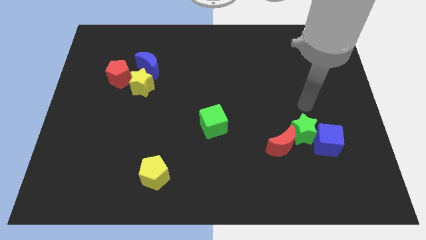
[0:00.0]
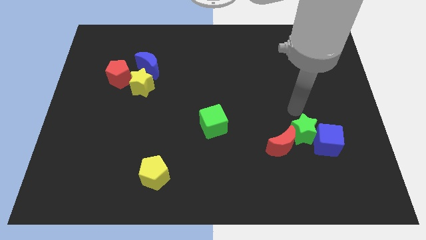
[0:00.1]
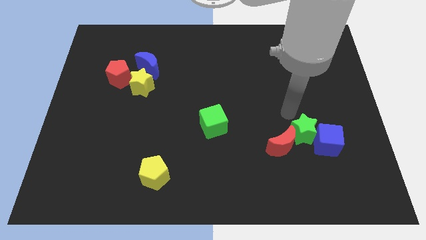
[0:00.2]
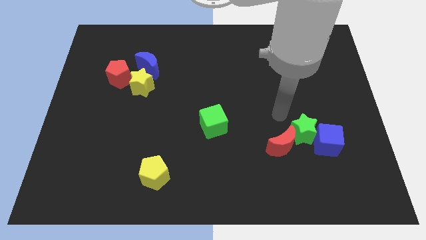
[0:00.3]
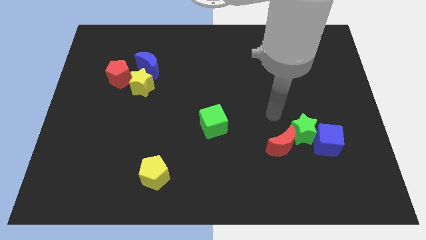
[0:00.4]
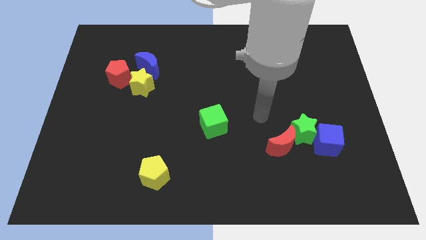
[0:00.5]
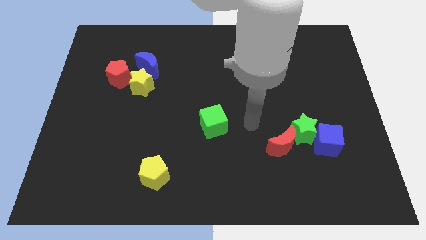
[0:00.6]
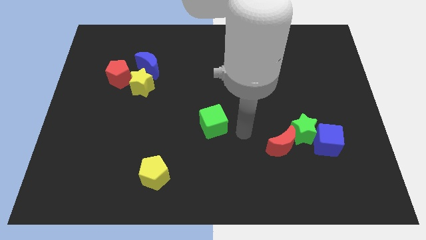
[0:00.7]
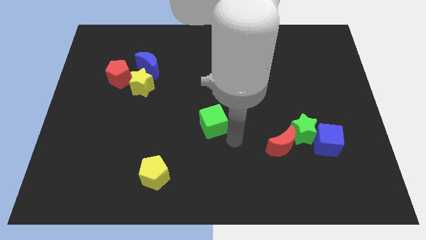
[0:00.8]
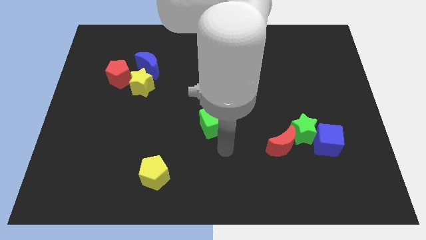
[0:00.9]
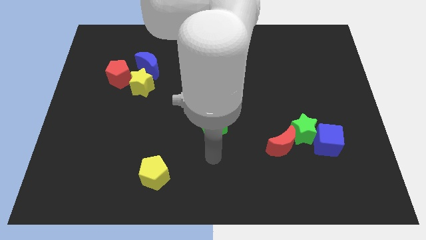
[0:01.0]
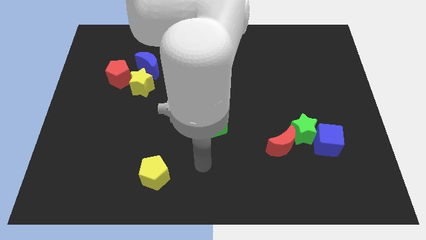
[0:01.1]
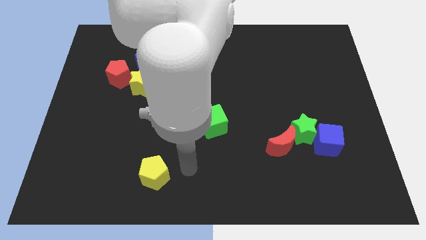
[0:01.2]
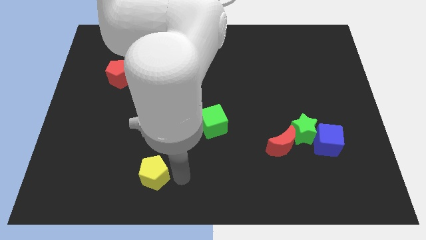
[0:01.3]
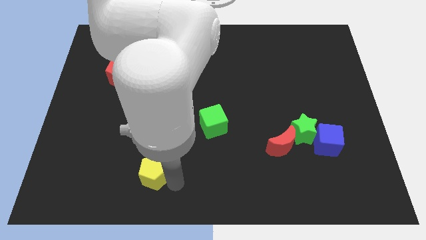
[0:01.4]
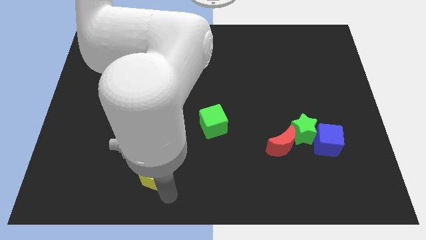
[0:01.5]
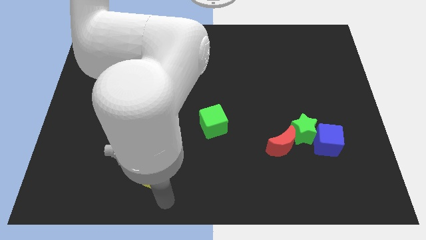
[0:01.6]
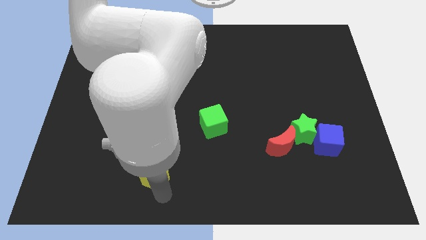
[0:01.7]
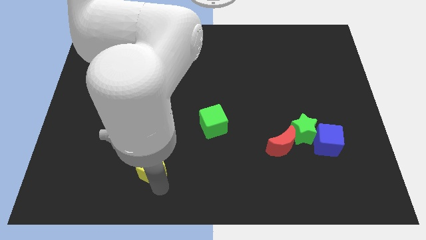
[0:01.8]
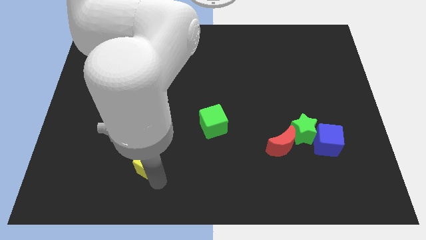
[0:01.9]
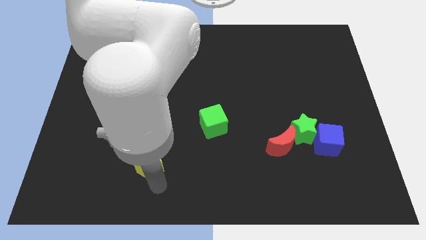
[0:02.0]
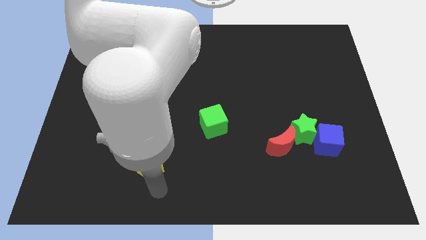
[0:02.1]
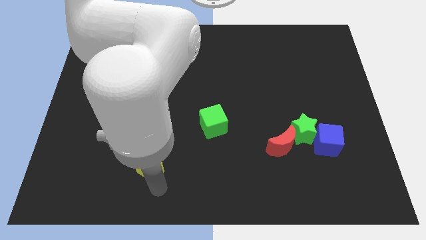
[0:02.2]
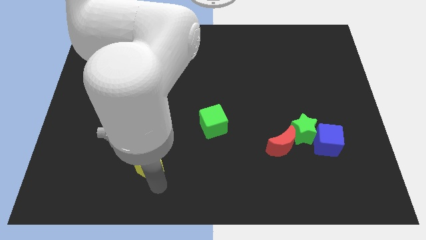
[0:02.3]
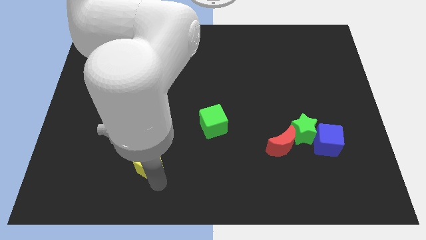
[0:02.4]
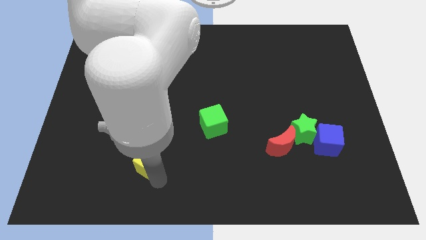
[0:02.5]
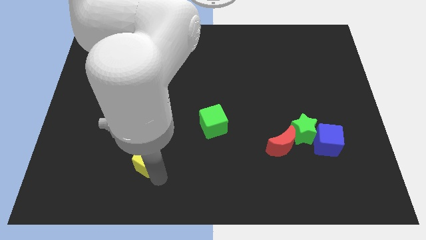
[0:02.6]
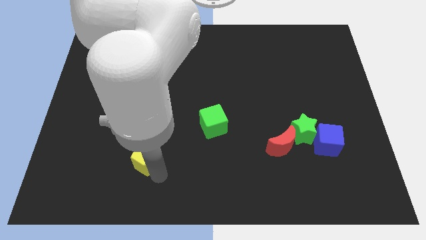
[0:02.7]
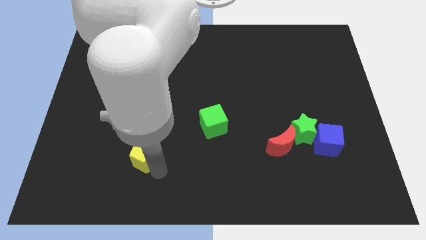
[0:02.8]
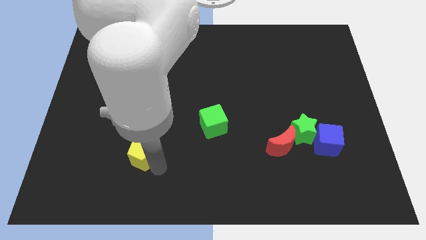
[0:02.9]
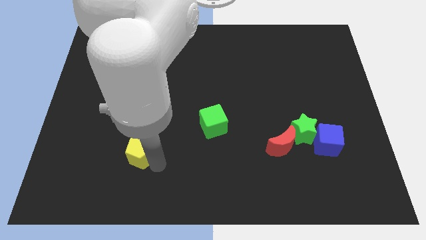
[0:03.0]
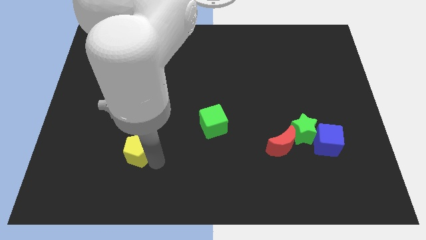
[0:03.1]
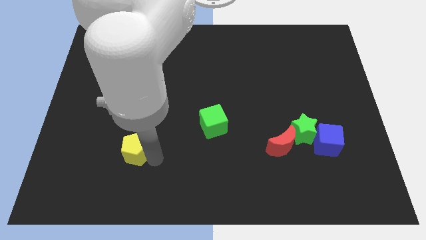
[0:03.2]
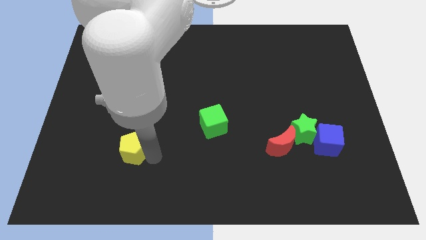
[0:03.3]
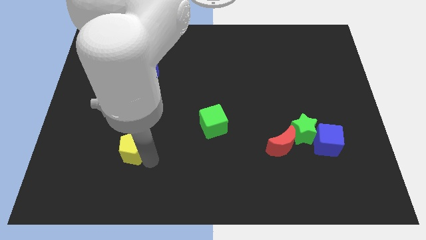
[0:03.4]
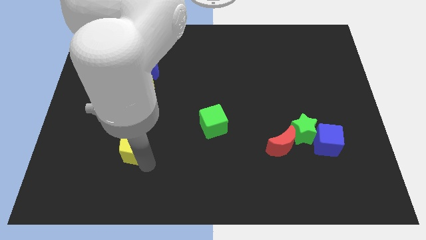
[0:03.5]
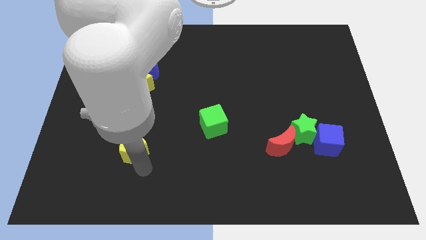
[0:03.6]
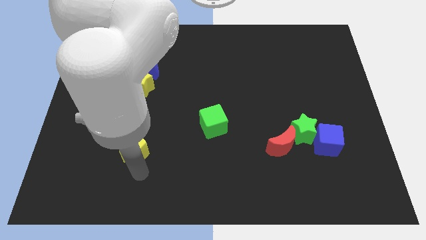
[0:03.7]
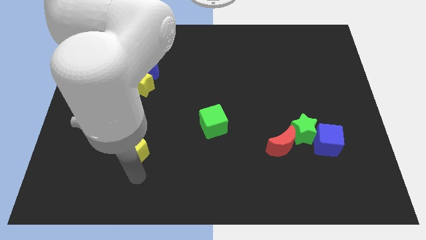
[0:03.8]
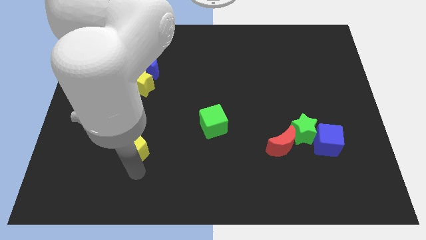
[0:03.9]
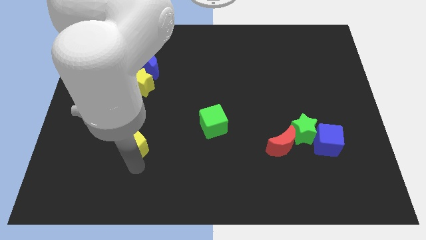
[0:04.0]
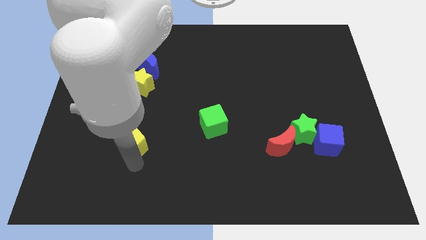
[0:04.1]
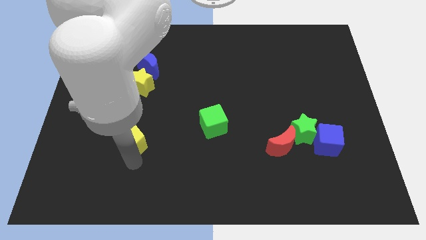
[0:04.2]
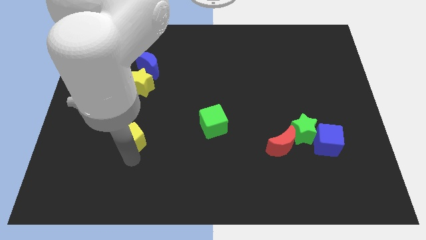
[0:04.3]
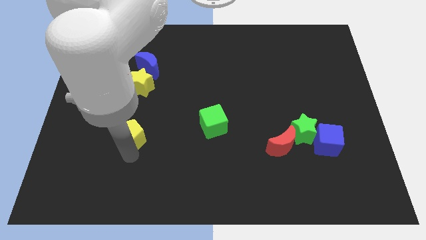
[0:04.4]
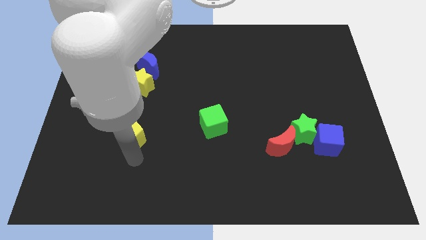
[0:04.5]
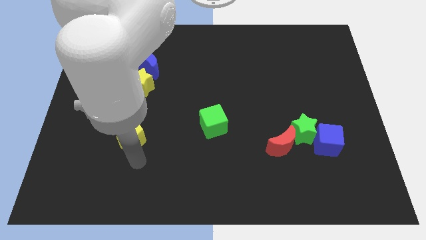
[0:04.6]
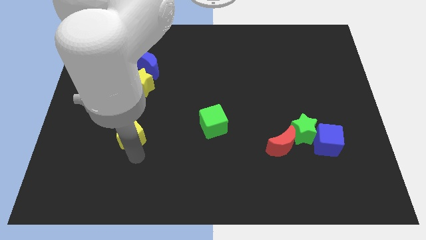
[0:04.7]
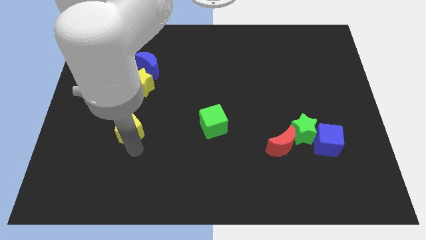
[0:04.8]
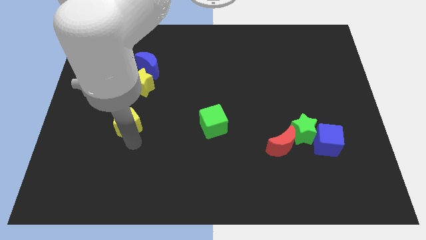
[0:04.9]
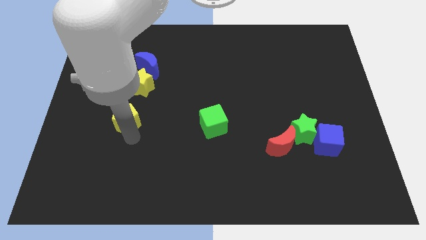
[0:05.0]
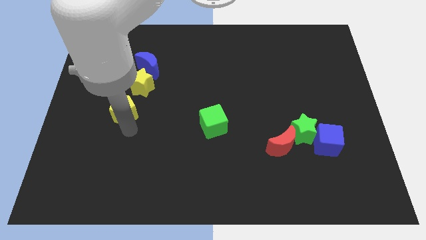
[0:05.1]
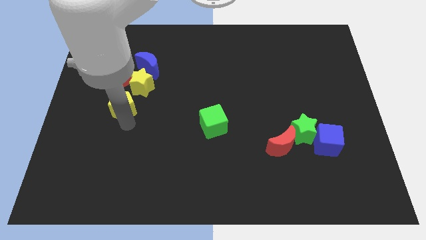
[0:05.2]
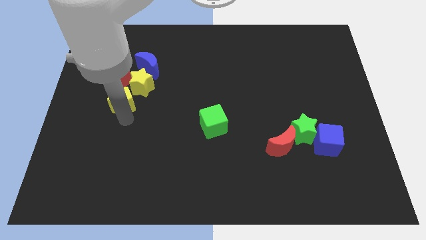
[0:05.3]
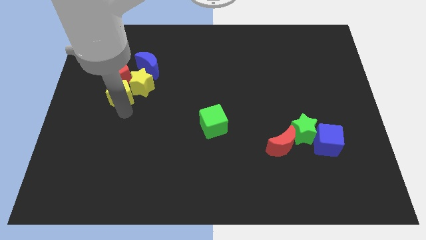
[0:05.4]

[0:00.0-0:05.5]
put the yellow pentagon next to the red pentagon

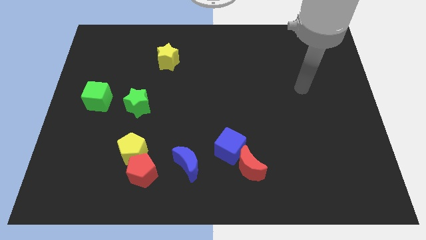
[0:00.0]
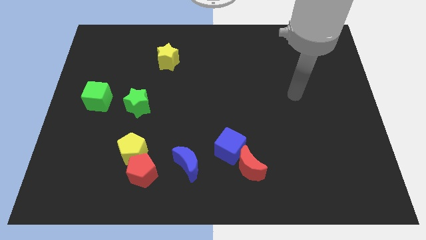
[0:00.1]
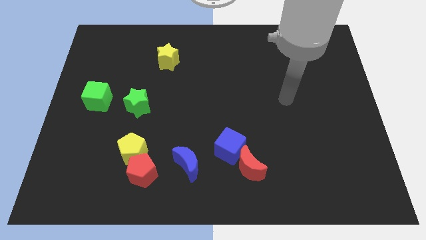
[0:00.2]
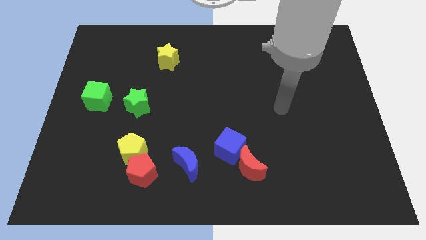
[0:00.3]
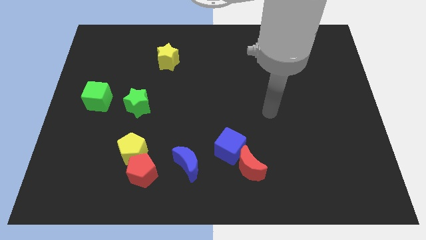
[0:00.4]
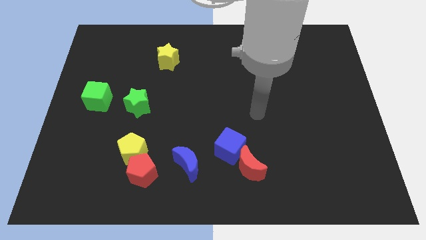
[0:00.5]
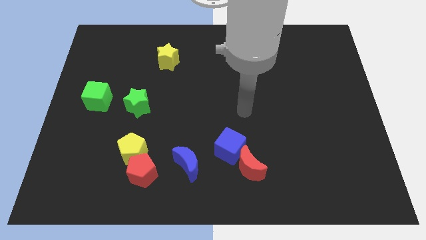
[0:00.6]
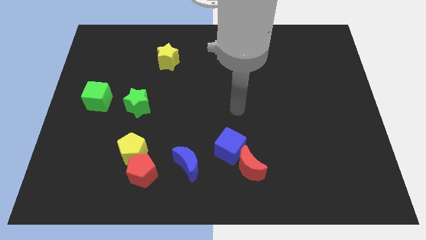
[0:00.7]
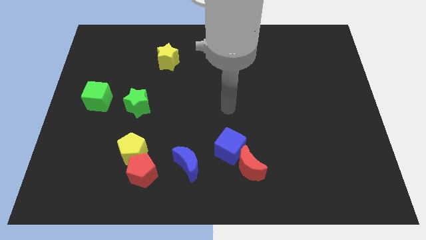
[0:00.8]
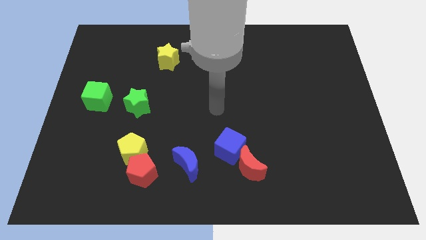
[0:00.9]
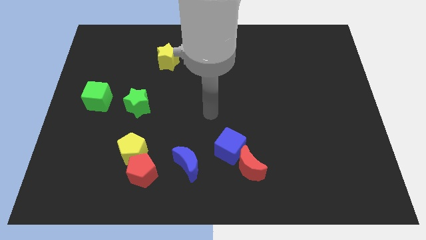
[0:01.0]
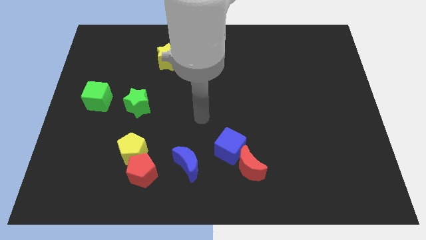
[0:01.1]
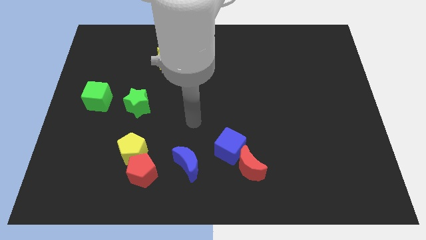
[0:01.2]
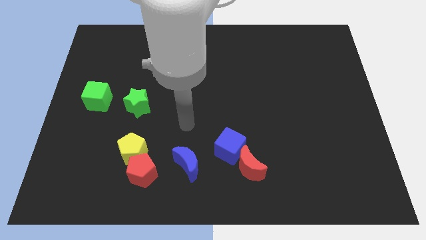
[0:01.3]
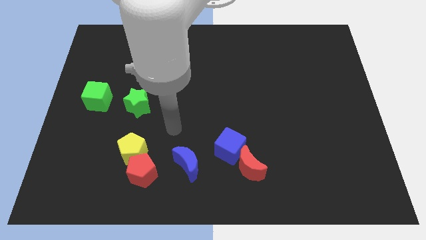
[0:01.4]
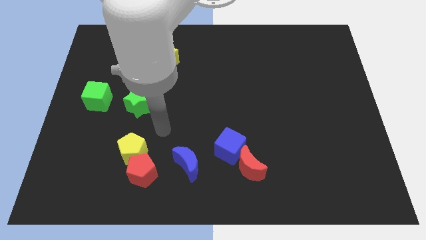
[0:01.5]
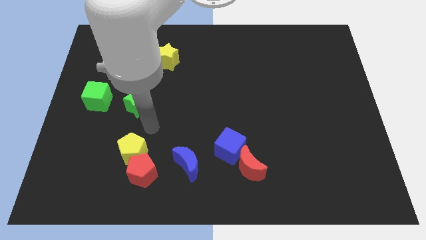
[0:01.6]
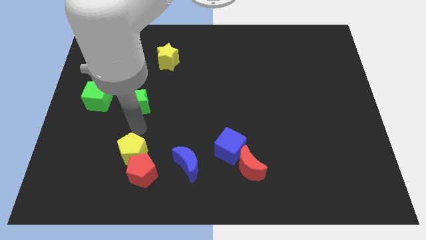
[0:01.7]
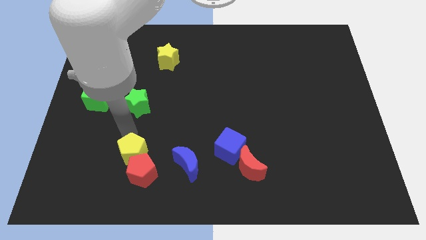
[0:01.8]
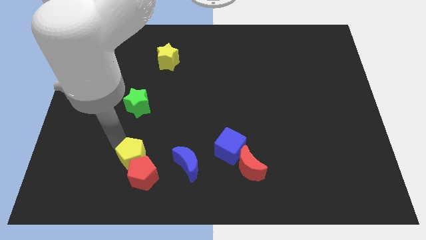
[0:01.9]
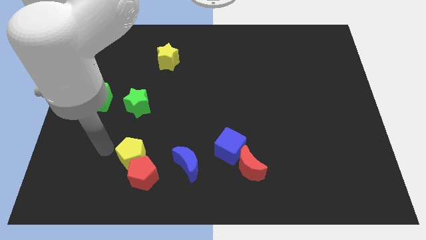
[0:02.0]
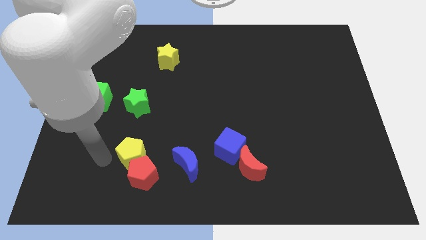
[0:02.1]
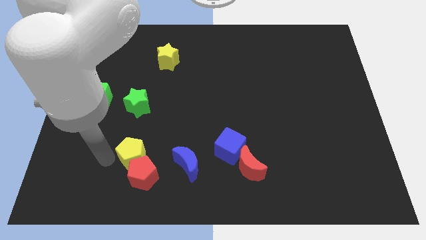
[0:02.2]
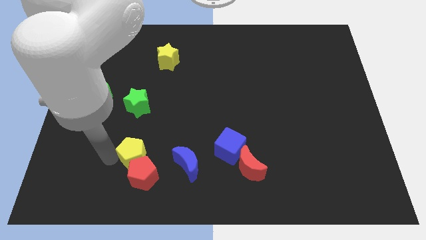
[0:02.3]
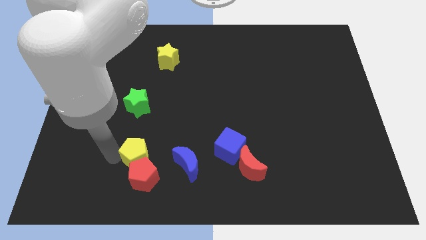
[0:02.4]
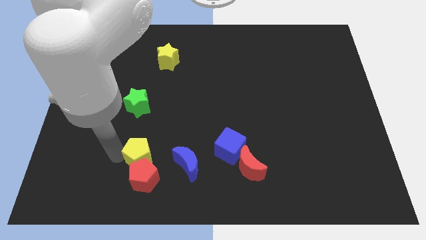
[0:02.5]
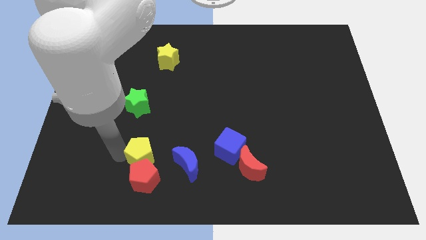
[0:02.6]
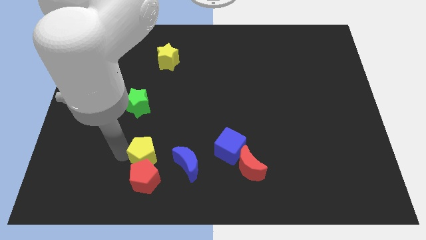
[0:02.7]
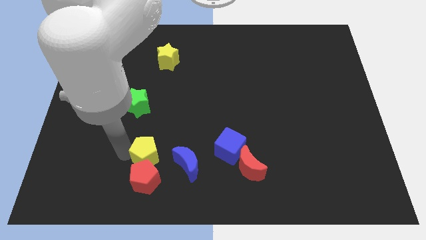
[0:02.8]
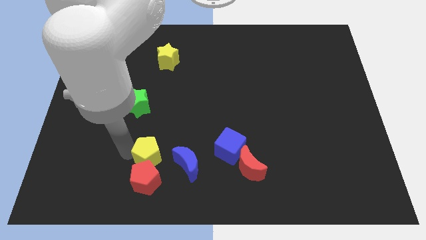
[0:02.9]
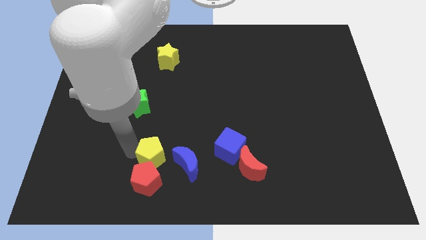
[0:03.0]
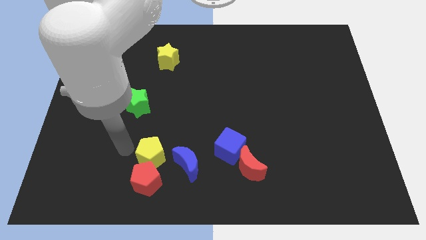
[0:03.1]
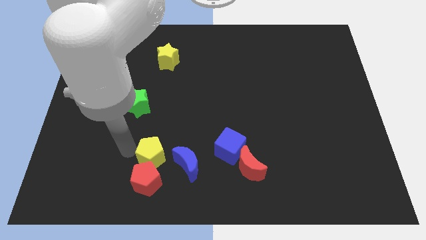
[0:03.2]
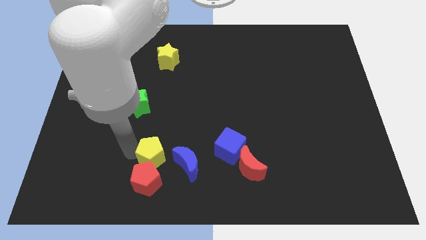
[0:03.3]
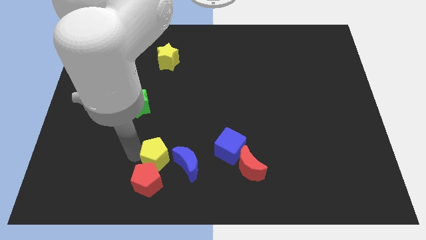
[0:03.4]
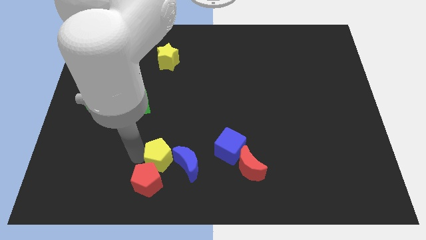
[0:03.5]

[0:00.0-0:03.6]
move the yellow pentagon towards the blue moon
